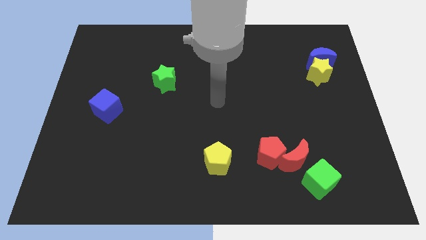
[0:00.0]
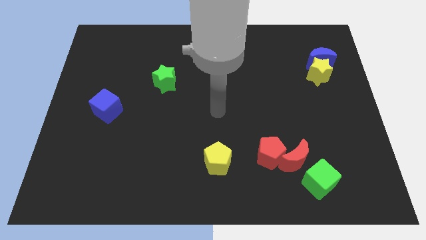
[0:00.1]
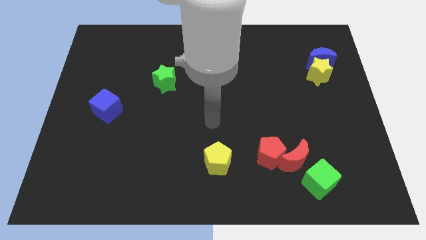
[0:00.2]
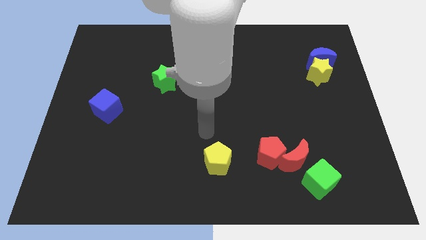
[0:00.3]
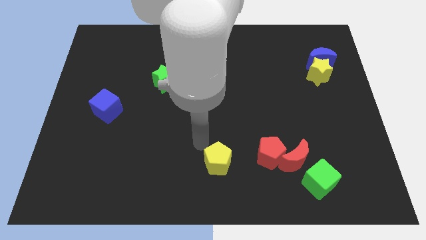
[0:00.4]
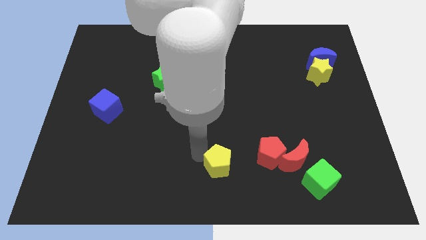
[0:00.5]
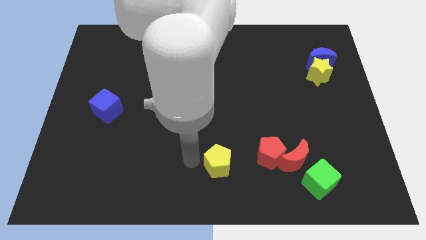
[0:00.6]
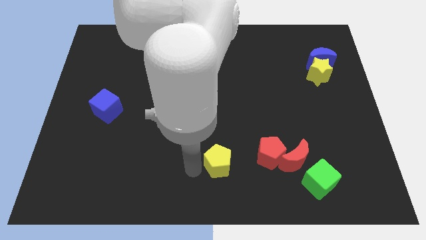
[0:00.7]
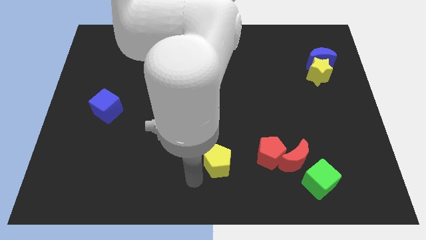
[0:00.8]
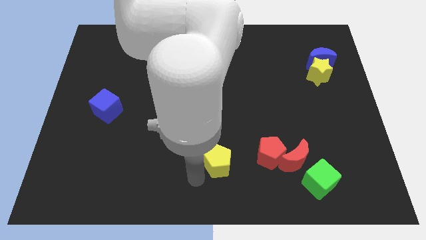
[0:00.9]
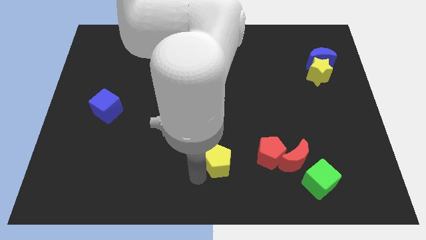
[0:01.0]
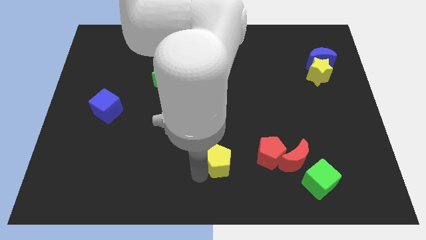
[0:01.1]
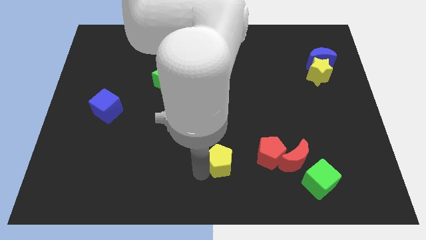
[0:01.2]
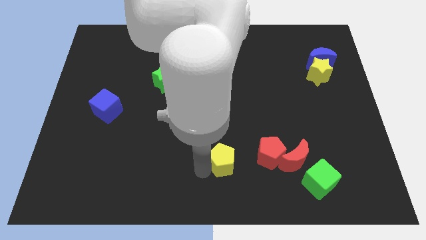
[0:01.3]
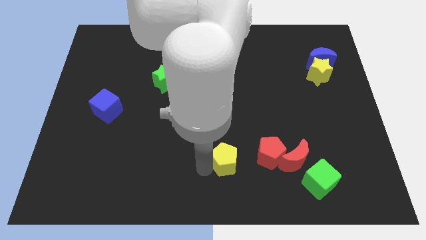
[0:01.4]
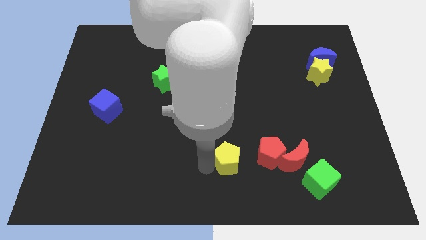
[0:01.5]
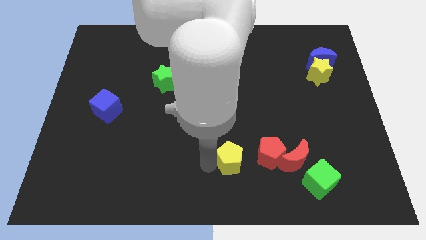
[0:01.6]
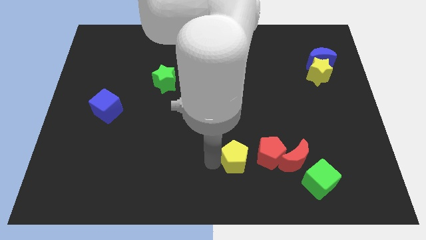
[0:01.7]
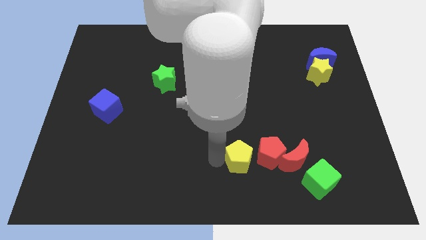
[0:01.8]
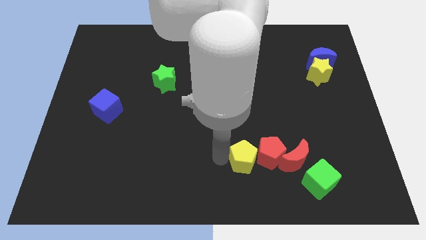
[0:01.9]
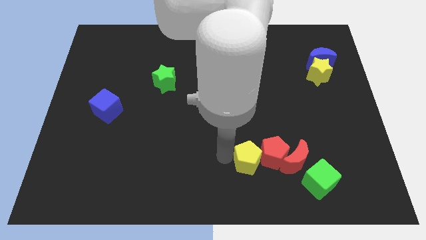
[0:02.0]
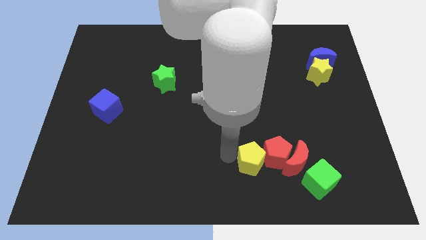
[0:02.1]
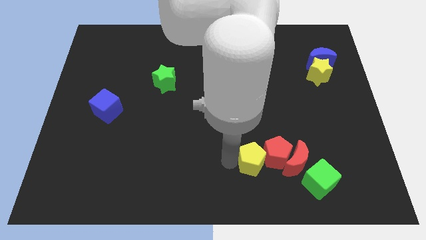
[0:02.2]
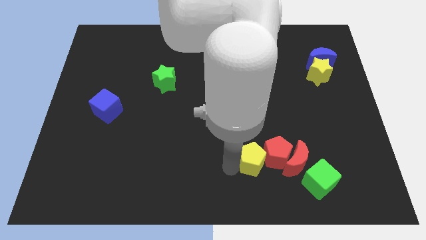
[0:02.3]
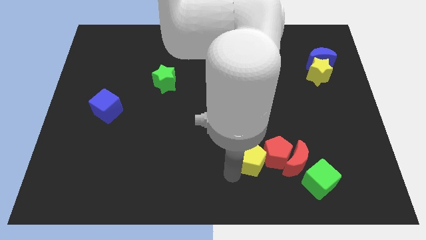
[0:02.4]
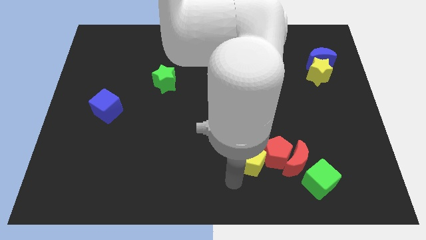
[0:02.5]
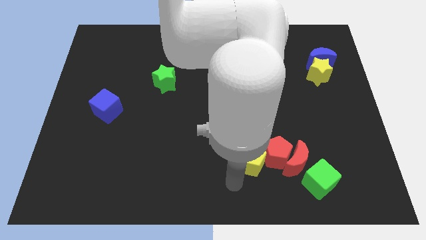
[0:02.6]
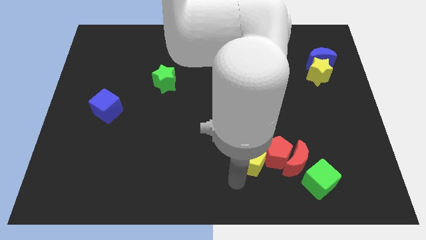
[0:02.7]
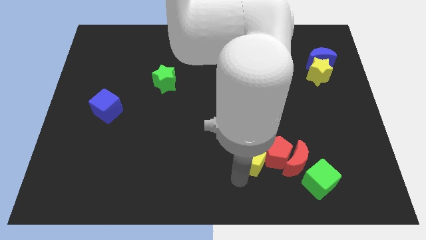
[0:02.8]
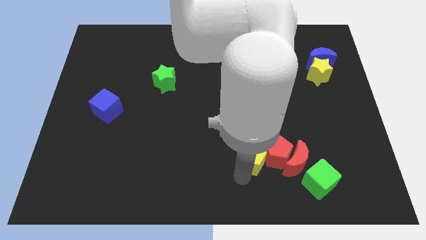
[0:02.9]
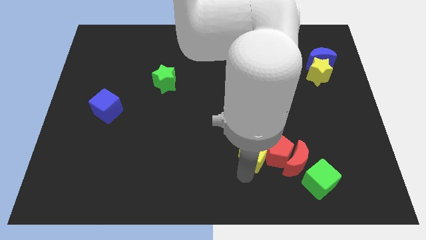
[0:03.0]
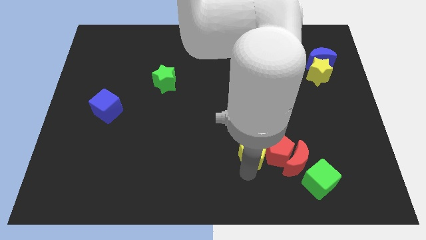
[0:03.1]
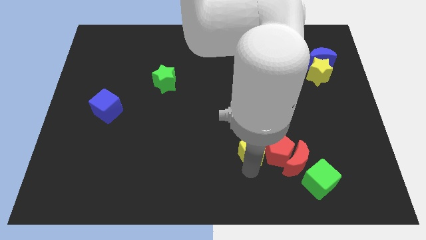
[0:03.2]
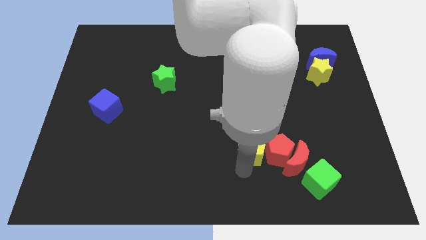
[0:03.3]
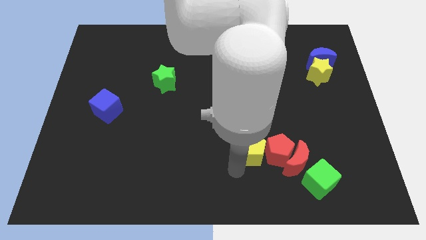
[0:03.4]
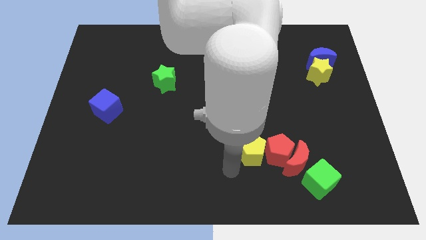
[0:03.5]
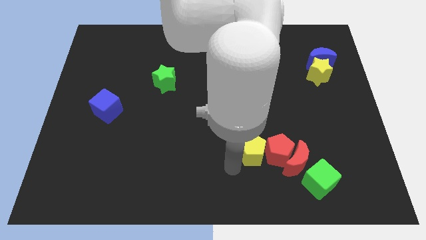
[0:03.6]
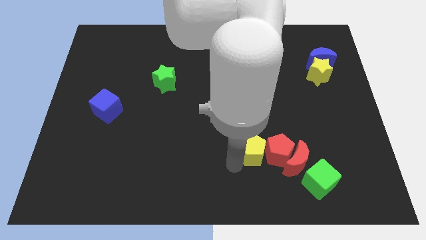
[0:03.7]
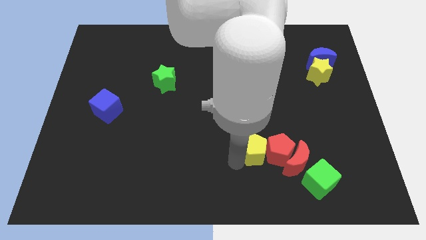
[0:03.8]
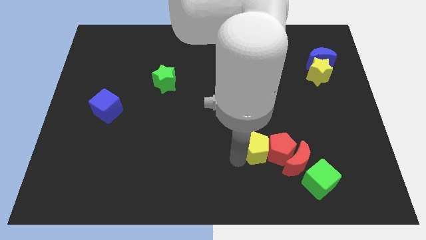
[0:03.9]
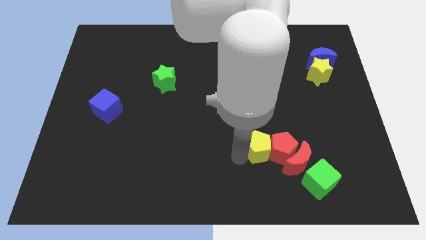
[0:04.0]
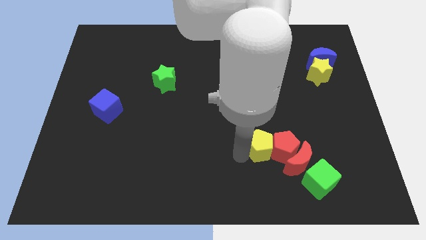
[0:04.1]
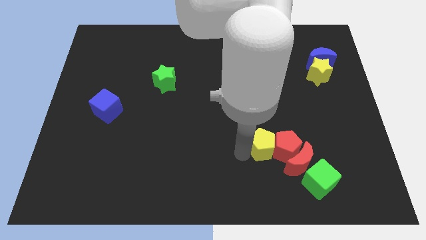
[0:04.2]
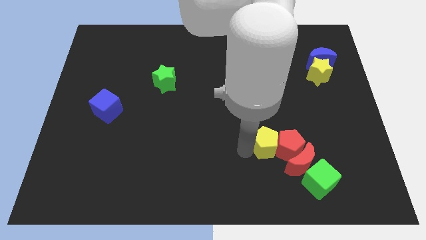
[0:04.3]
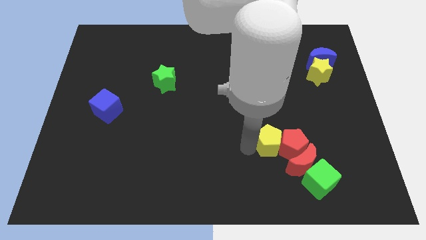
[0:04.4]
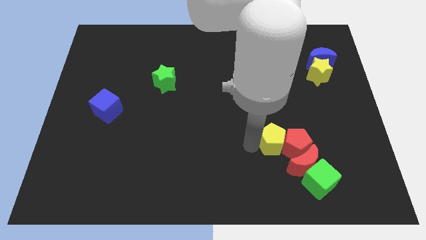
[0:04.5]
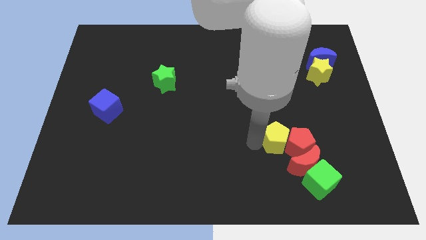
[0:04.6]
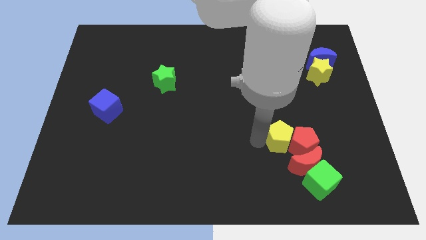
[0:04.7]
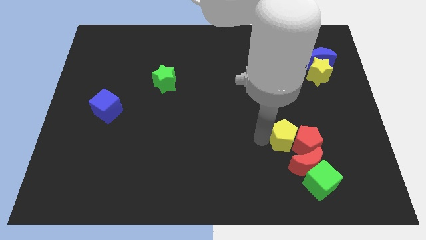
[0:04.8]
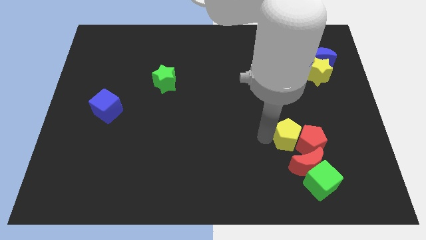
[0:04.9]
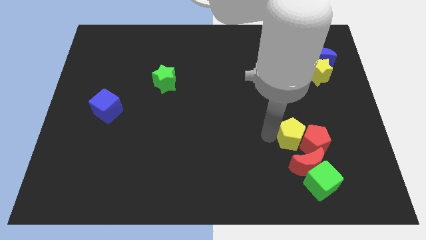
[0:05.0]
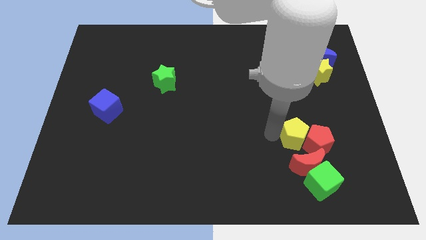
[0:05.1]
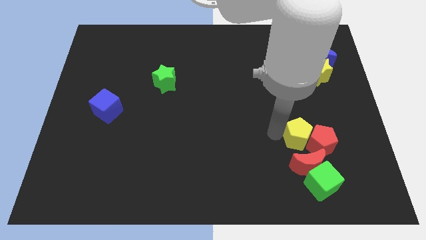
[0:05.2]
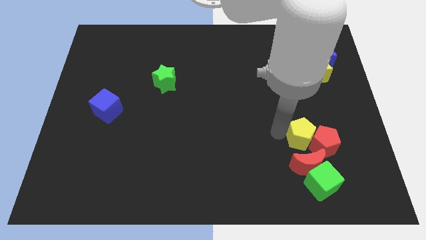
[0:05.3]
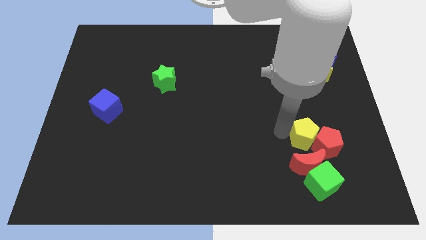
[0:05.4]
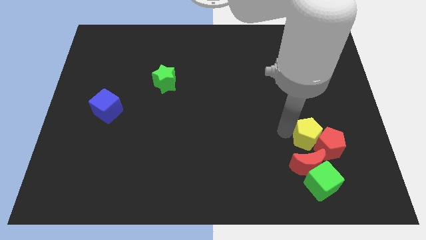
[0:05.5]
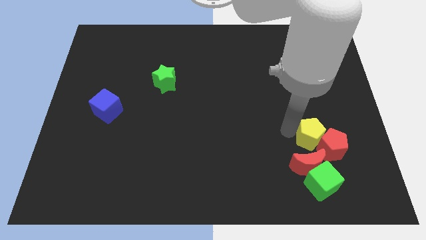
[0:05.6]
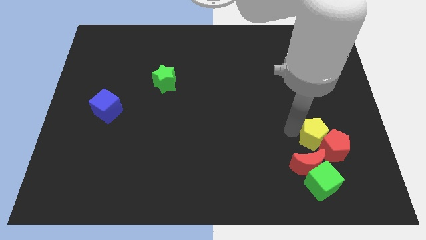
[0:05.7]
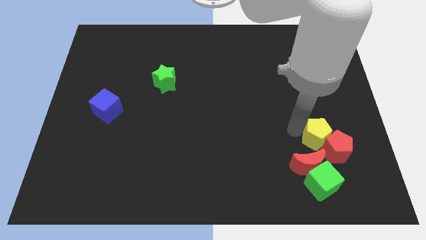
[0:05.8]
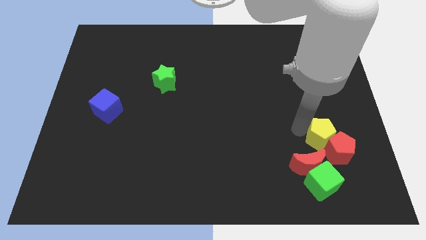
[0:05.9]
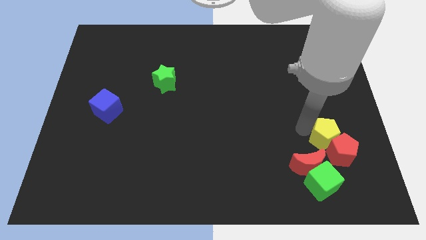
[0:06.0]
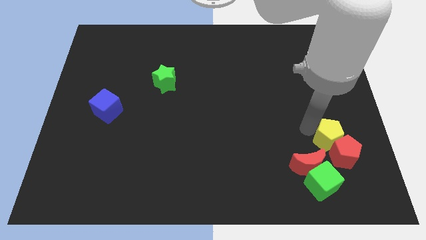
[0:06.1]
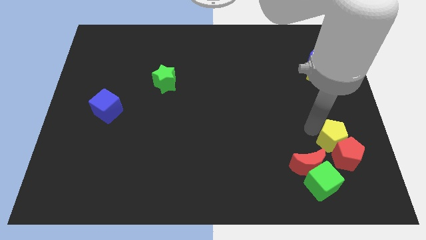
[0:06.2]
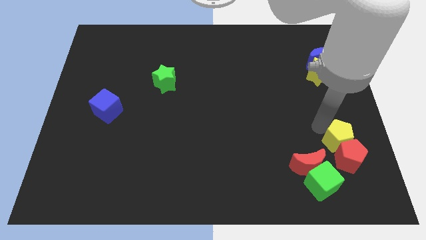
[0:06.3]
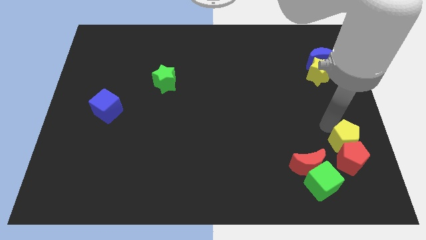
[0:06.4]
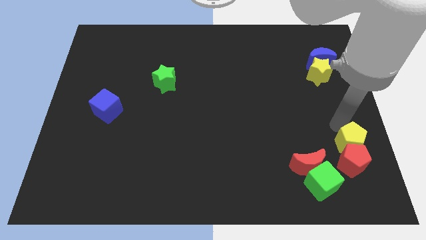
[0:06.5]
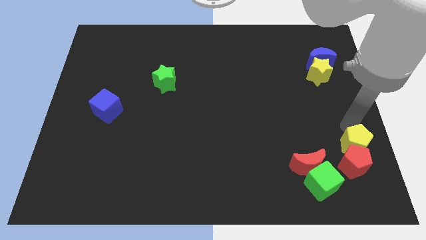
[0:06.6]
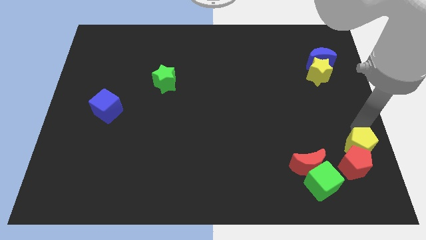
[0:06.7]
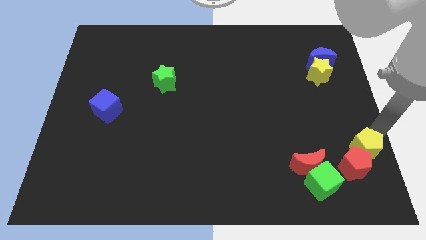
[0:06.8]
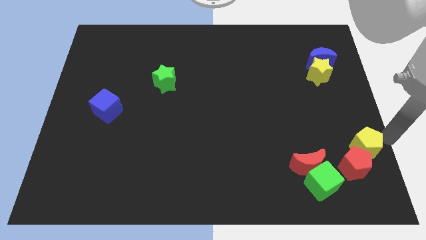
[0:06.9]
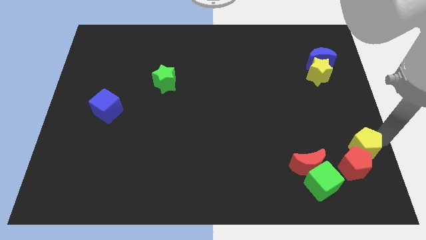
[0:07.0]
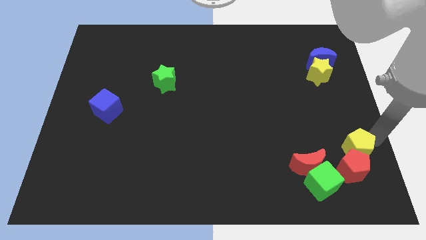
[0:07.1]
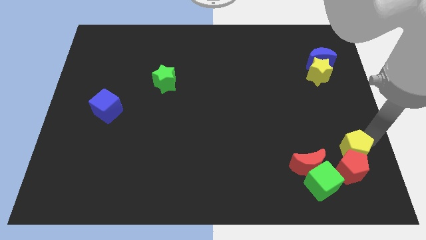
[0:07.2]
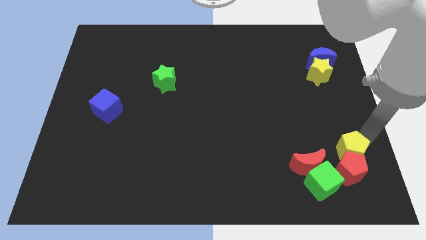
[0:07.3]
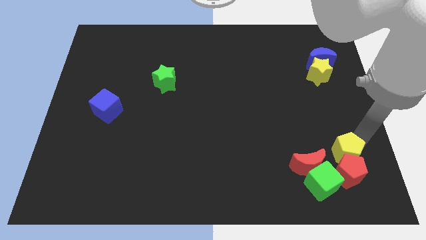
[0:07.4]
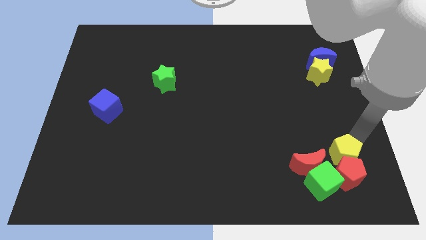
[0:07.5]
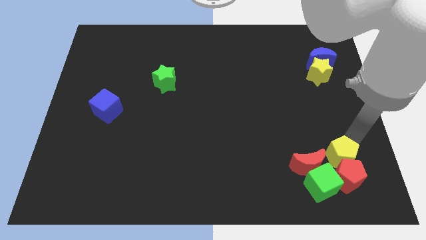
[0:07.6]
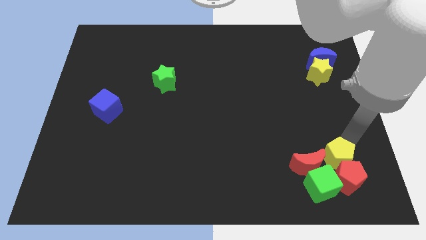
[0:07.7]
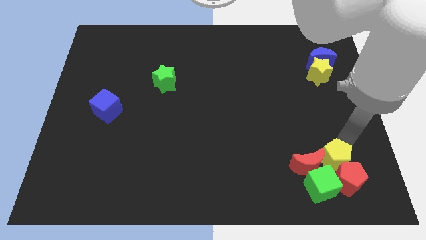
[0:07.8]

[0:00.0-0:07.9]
put the yellow pentagon close to the red moon
